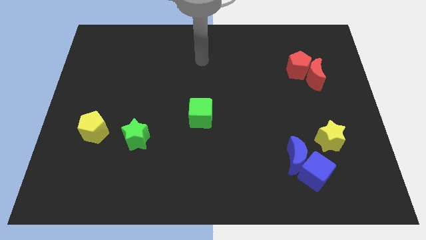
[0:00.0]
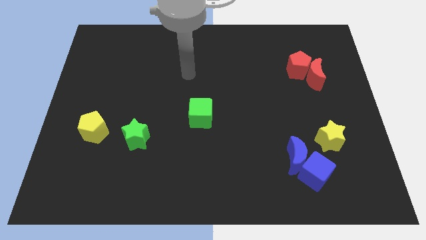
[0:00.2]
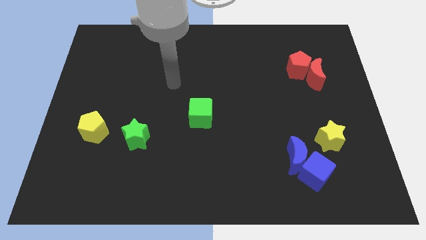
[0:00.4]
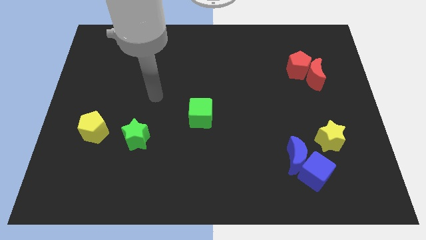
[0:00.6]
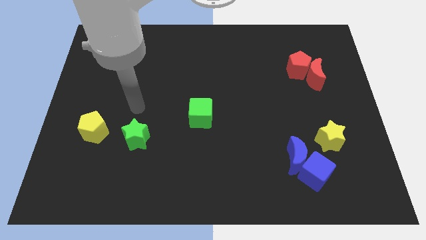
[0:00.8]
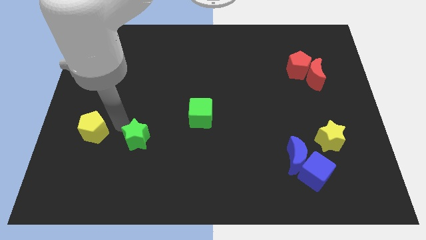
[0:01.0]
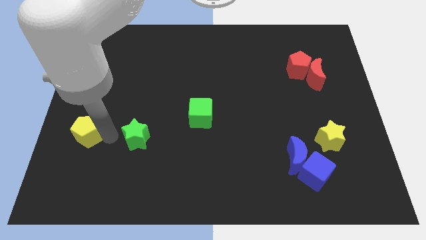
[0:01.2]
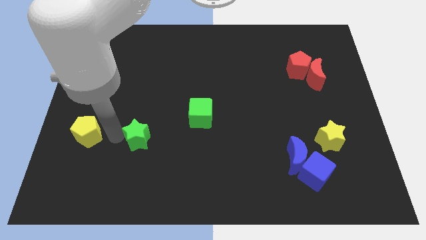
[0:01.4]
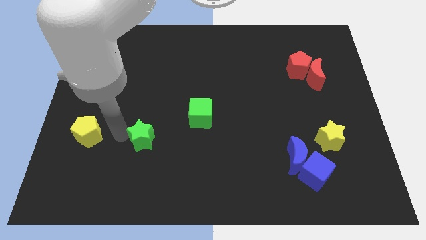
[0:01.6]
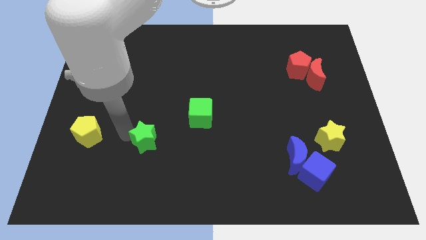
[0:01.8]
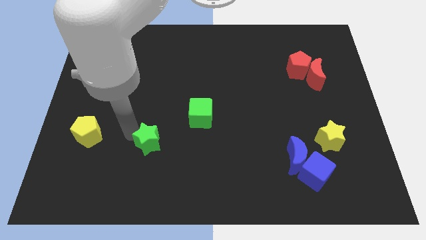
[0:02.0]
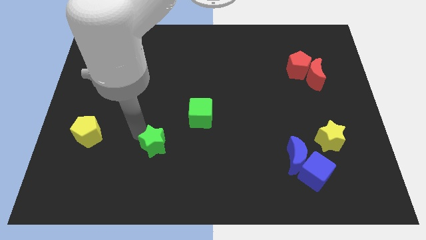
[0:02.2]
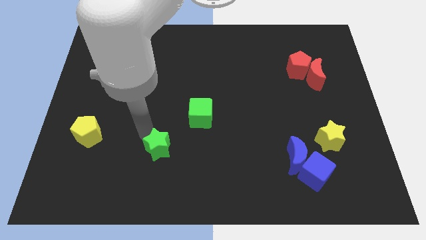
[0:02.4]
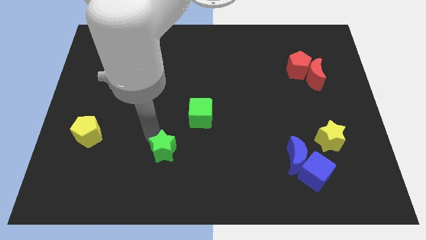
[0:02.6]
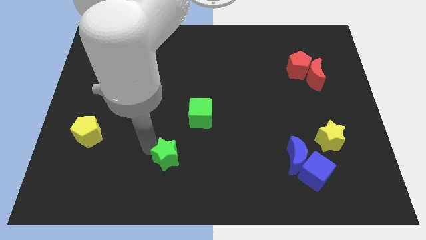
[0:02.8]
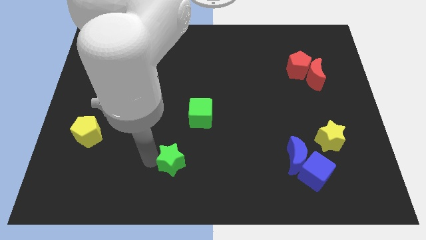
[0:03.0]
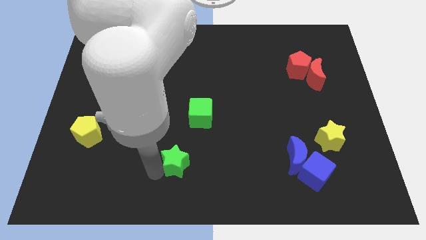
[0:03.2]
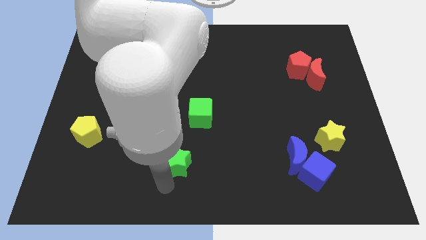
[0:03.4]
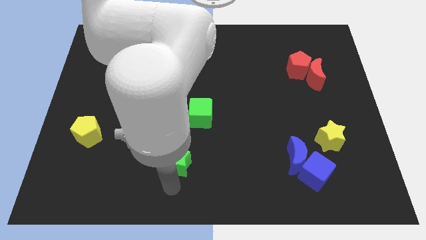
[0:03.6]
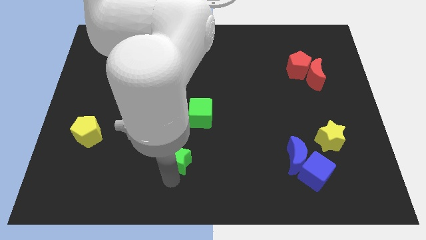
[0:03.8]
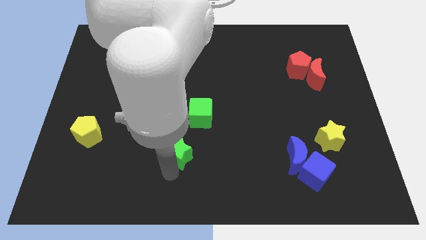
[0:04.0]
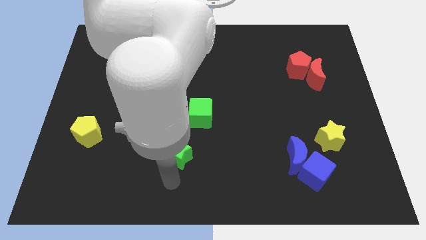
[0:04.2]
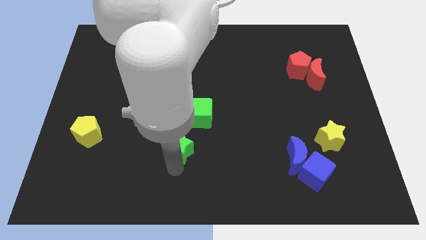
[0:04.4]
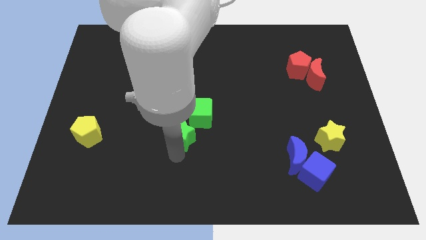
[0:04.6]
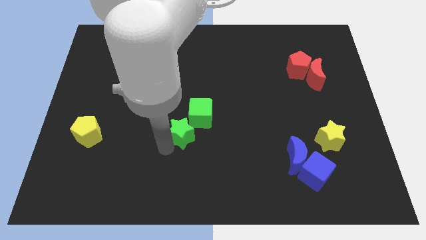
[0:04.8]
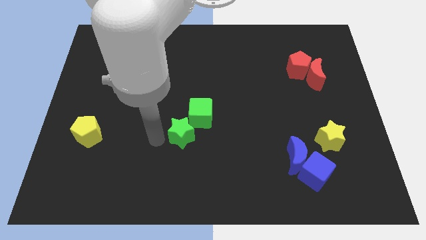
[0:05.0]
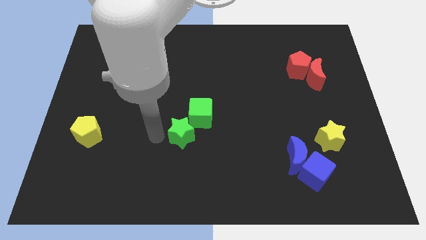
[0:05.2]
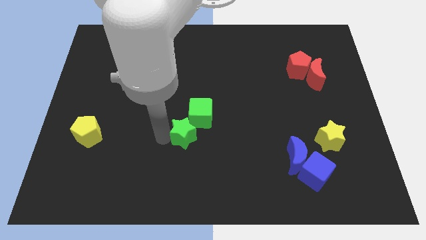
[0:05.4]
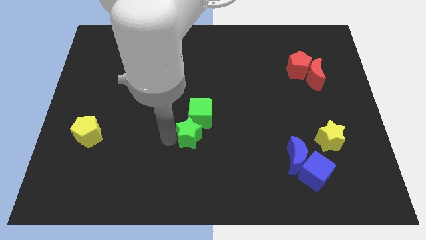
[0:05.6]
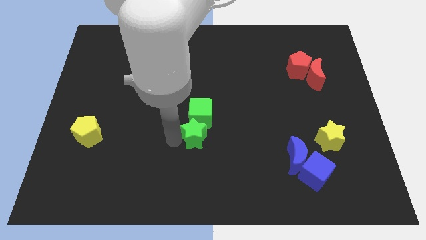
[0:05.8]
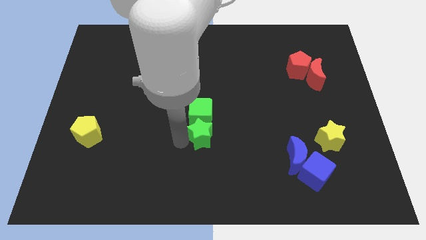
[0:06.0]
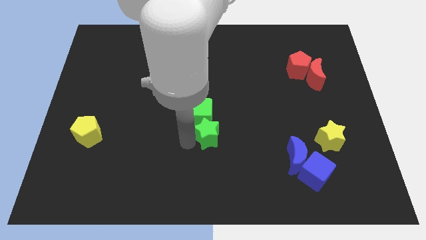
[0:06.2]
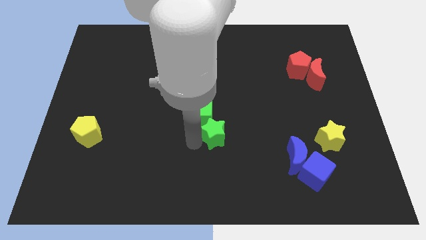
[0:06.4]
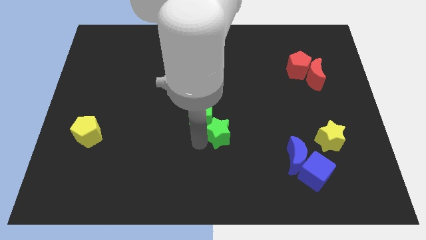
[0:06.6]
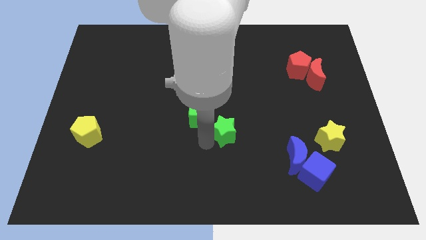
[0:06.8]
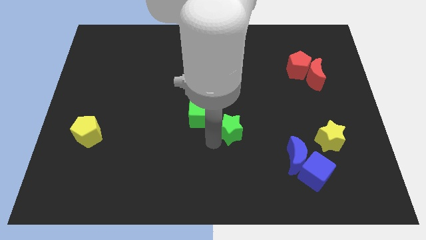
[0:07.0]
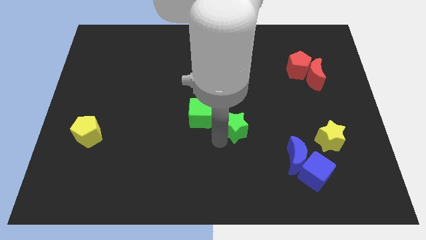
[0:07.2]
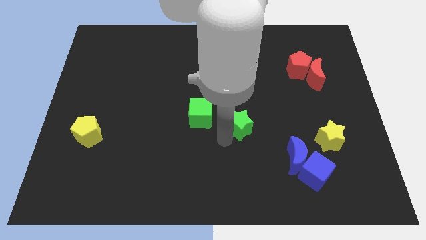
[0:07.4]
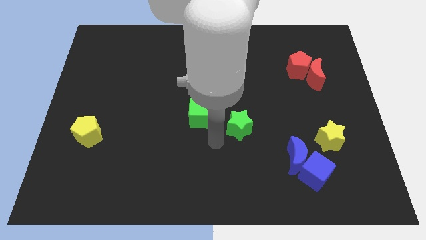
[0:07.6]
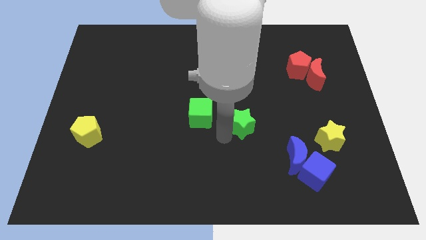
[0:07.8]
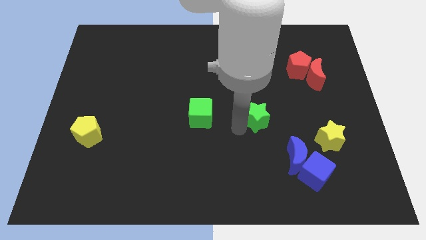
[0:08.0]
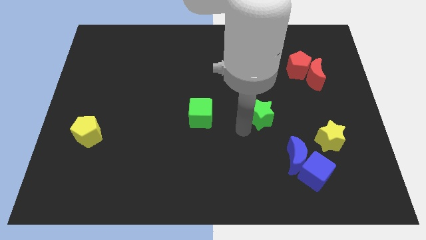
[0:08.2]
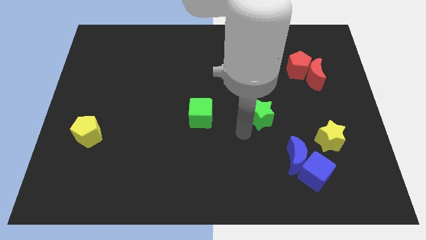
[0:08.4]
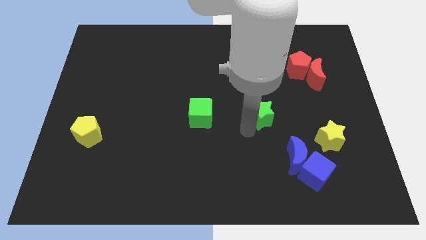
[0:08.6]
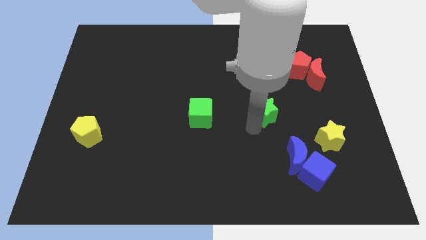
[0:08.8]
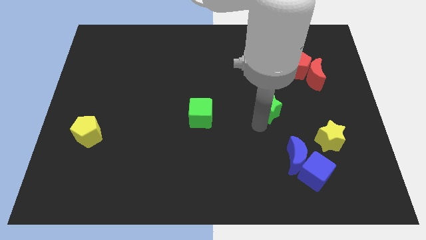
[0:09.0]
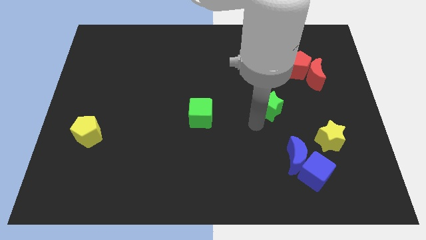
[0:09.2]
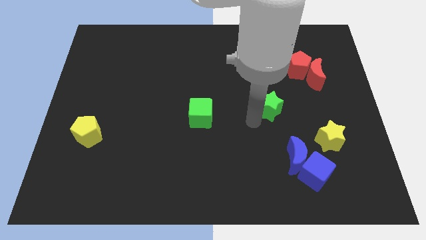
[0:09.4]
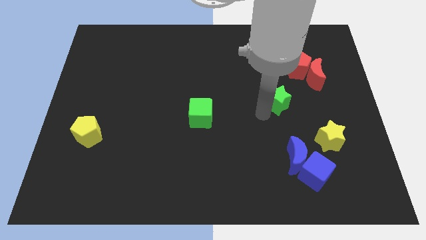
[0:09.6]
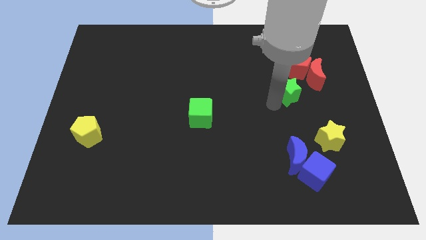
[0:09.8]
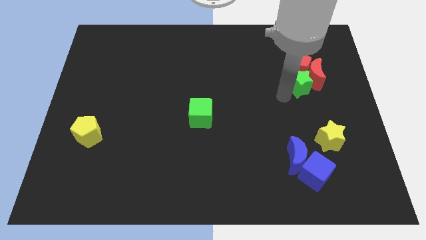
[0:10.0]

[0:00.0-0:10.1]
push the green star to the red moon

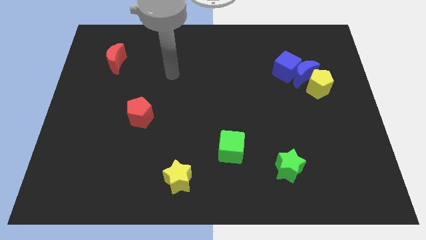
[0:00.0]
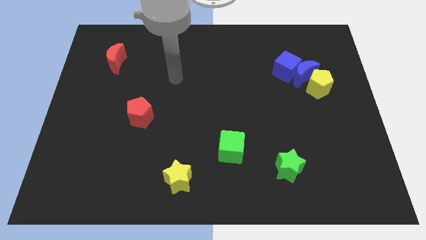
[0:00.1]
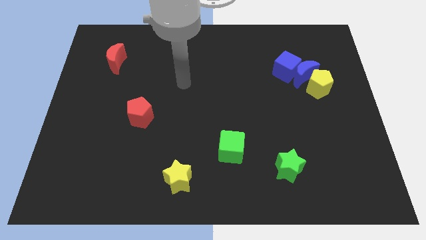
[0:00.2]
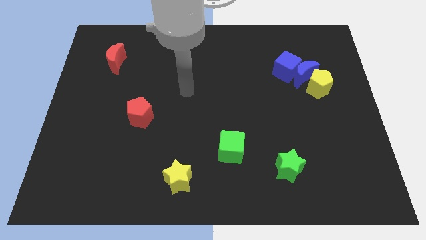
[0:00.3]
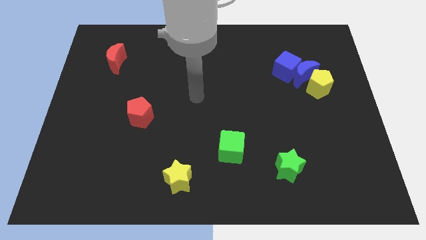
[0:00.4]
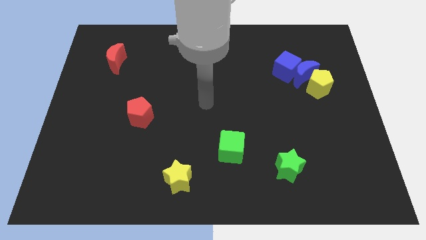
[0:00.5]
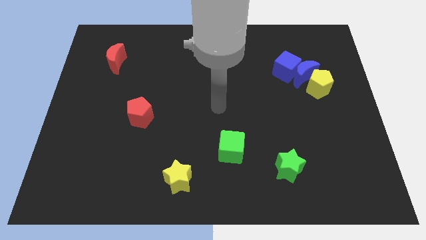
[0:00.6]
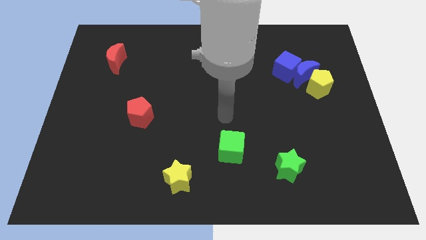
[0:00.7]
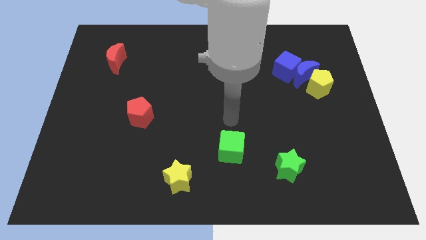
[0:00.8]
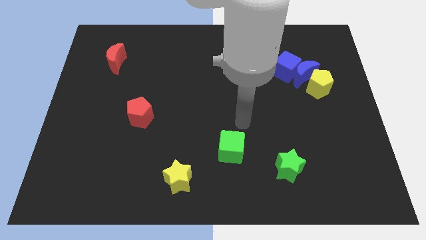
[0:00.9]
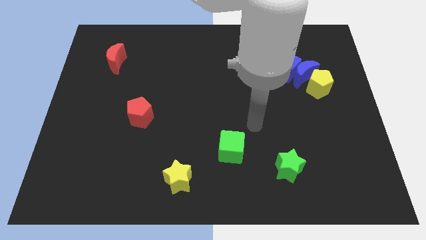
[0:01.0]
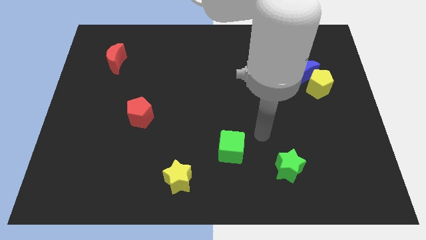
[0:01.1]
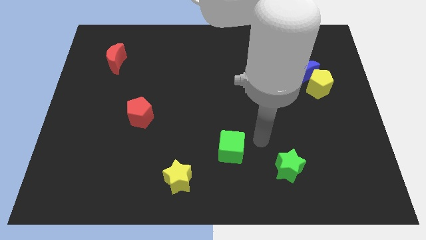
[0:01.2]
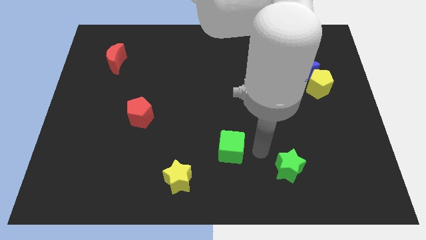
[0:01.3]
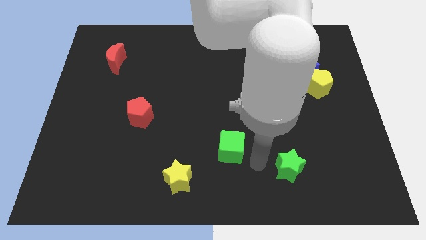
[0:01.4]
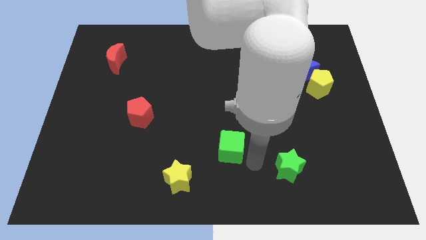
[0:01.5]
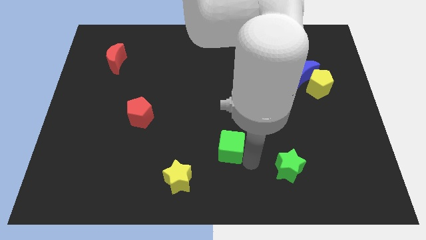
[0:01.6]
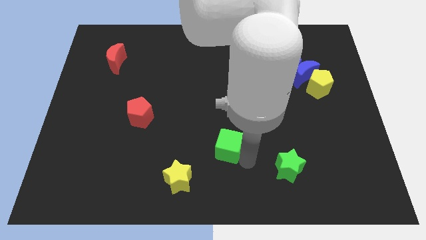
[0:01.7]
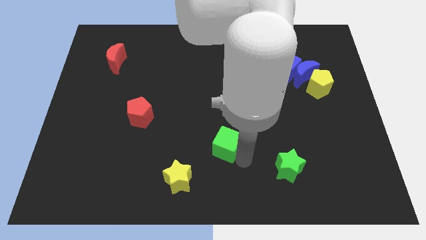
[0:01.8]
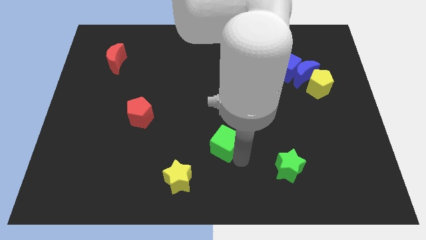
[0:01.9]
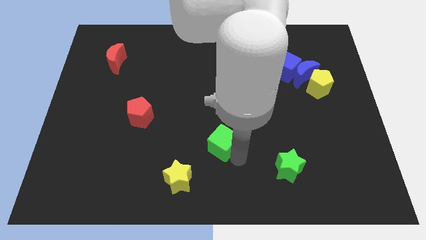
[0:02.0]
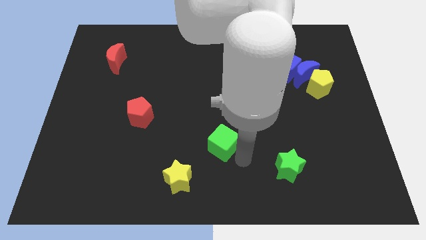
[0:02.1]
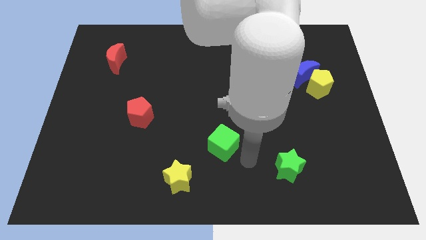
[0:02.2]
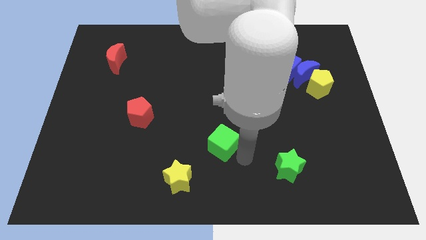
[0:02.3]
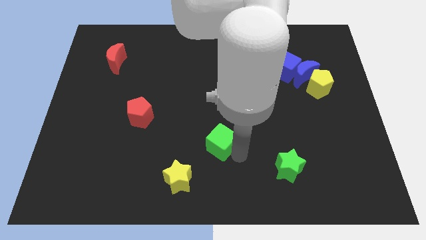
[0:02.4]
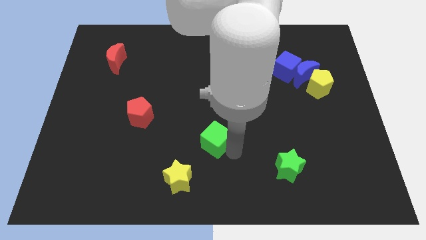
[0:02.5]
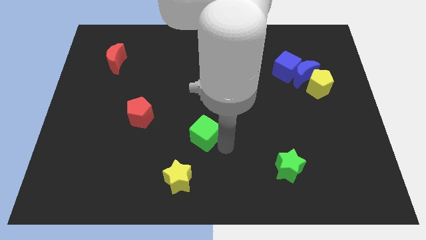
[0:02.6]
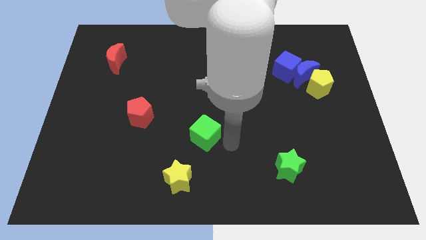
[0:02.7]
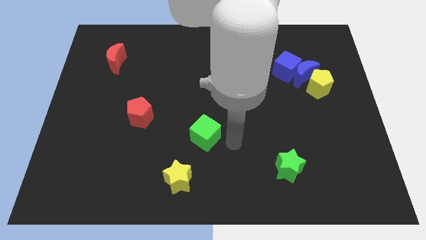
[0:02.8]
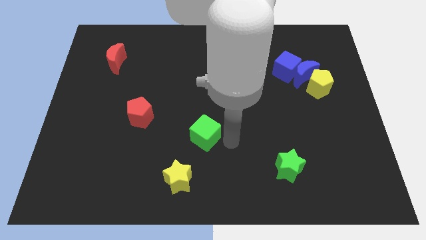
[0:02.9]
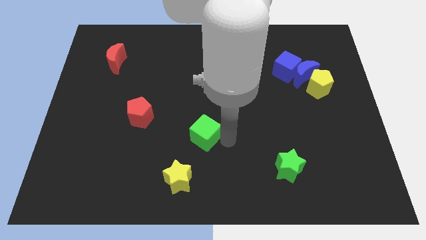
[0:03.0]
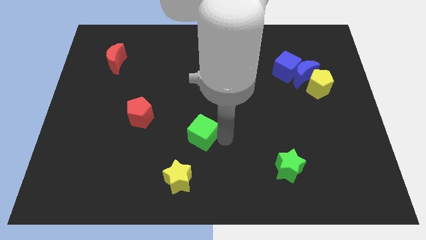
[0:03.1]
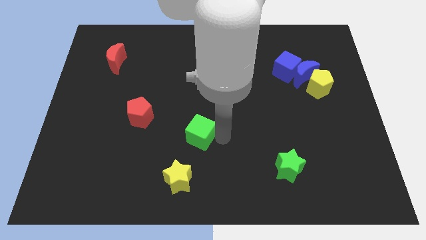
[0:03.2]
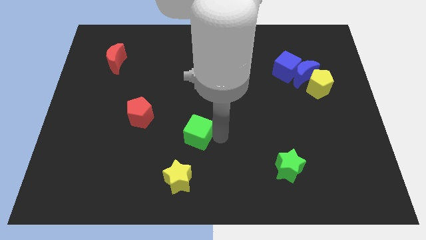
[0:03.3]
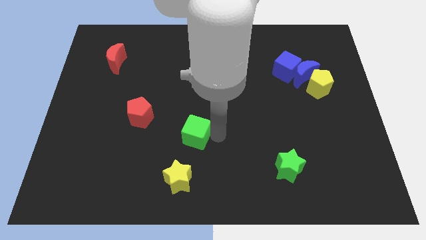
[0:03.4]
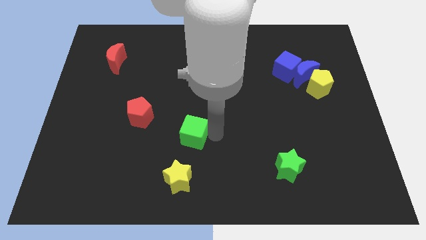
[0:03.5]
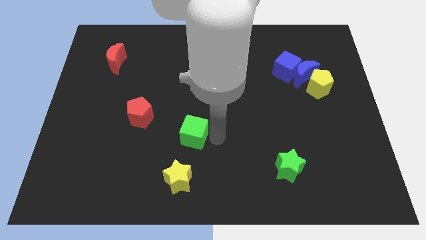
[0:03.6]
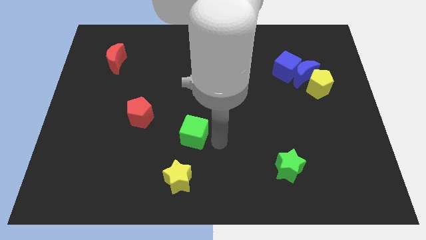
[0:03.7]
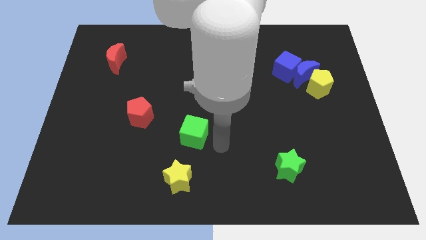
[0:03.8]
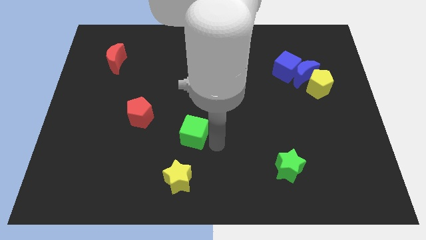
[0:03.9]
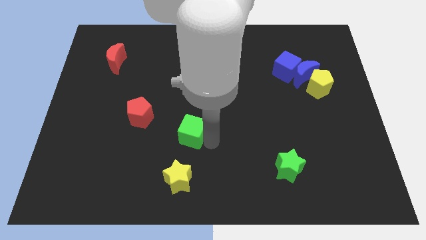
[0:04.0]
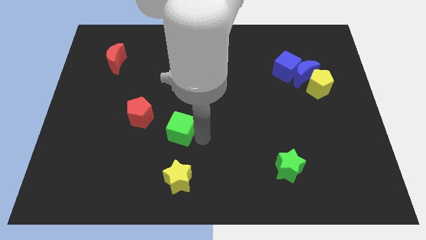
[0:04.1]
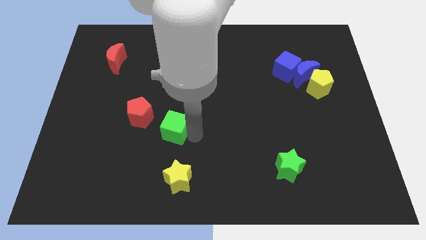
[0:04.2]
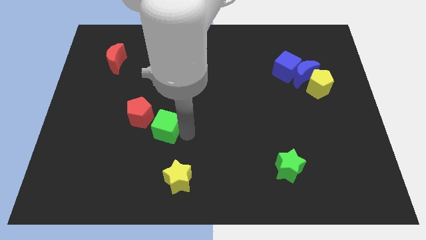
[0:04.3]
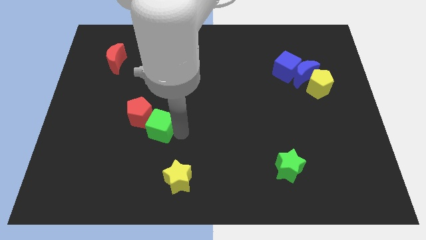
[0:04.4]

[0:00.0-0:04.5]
slide the green cube to the red pentagon
